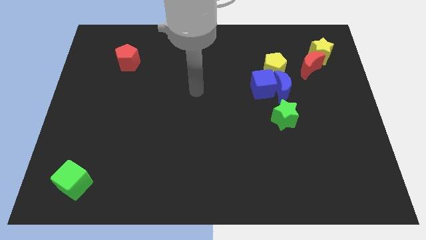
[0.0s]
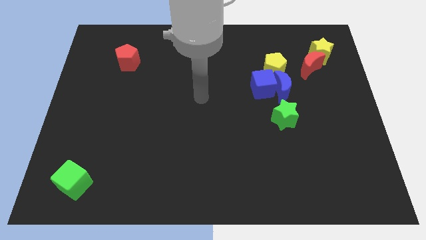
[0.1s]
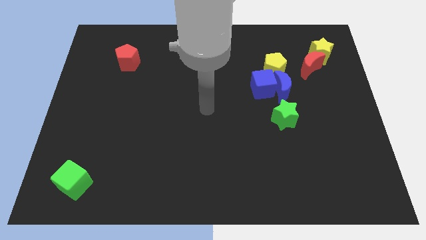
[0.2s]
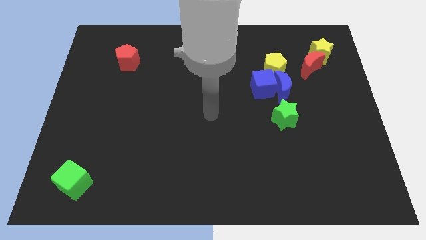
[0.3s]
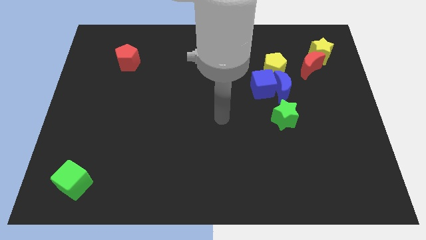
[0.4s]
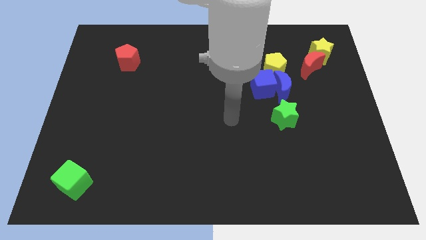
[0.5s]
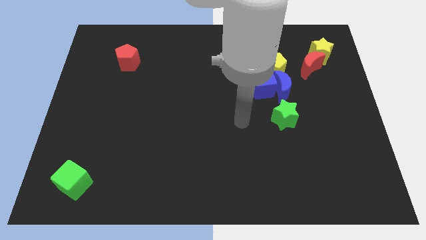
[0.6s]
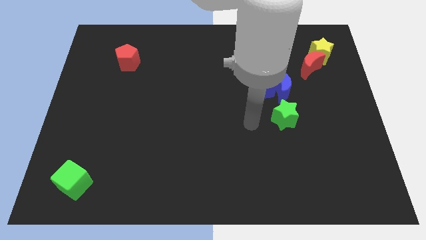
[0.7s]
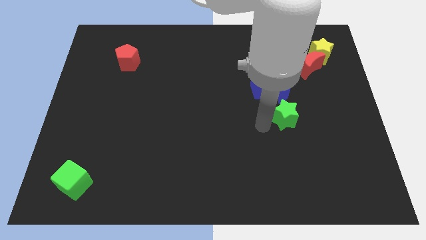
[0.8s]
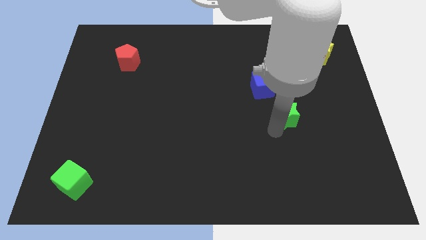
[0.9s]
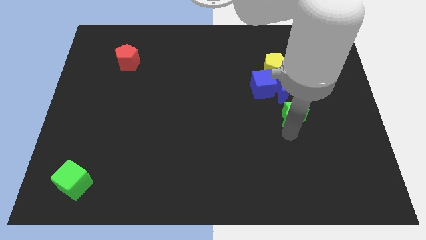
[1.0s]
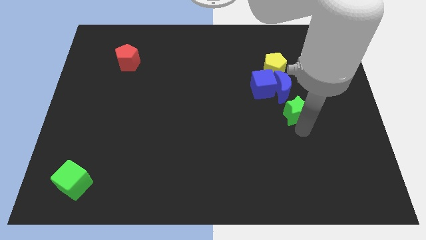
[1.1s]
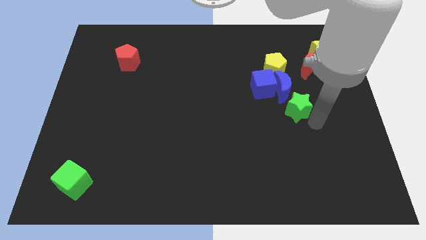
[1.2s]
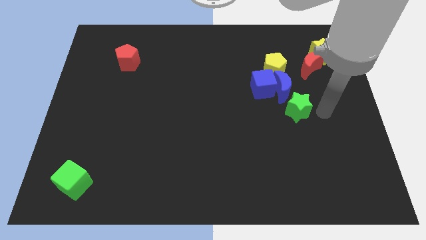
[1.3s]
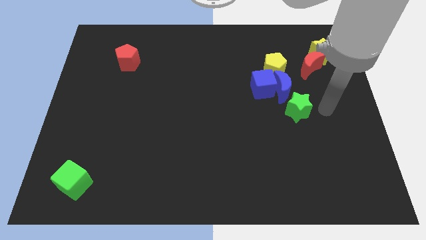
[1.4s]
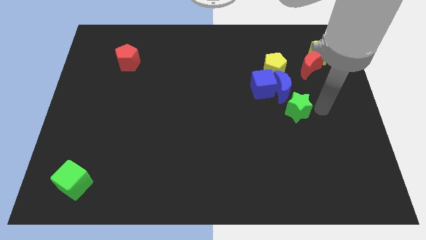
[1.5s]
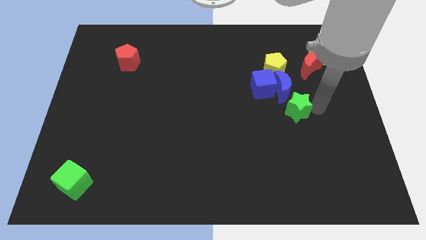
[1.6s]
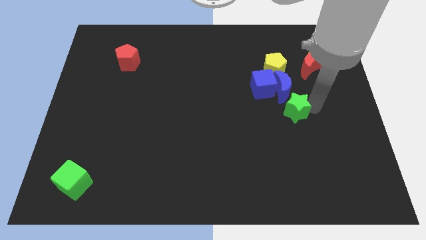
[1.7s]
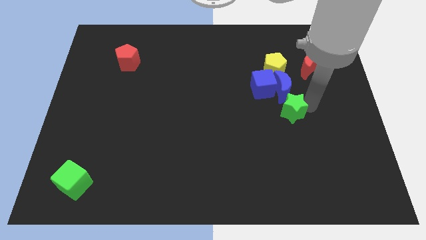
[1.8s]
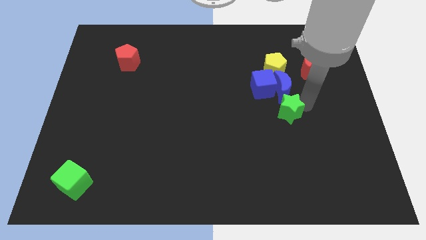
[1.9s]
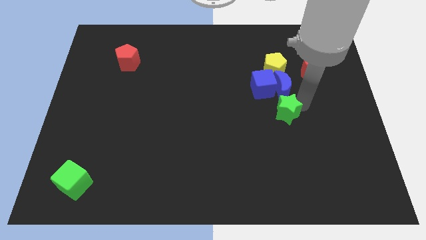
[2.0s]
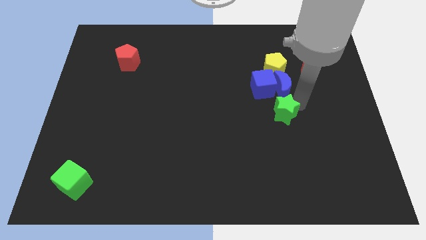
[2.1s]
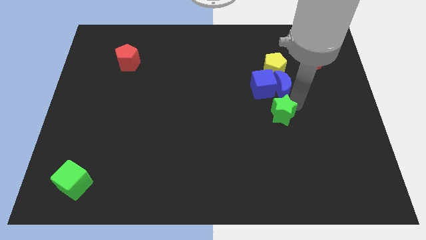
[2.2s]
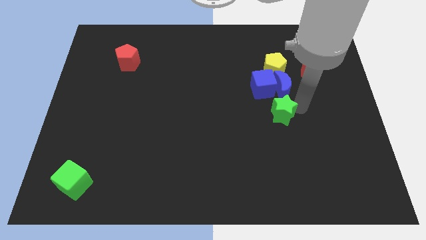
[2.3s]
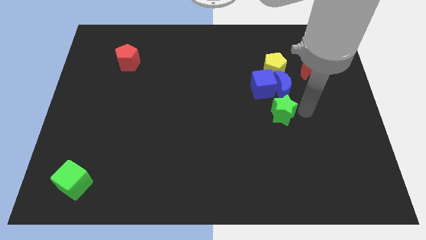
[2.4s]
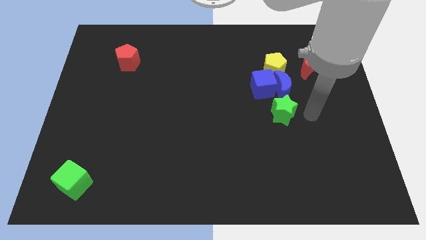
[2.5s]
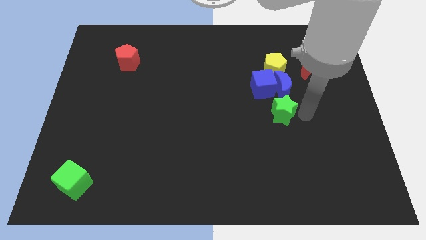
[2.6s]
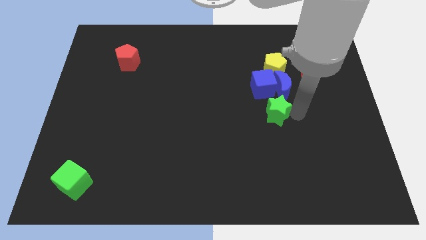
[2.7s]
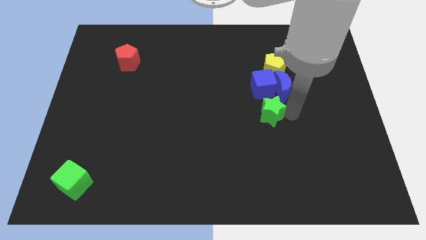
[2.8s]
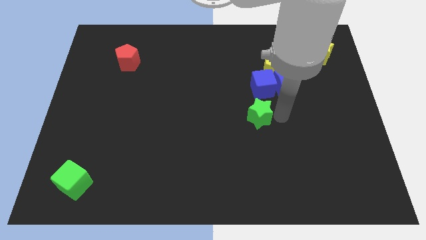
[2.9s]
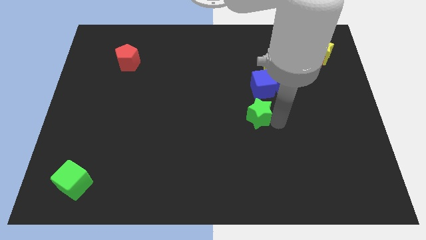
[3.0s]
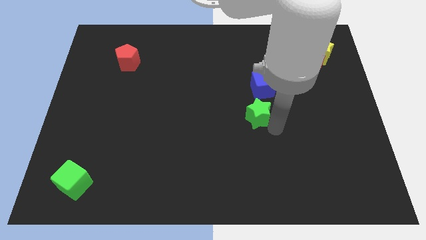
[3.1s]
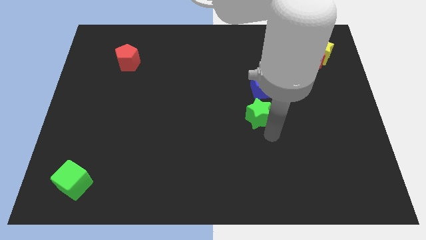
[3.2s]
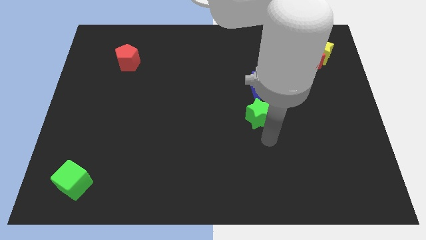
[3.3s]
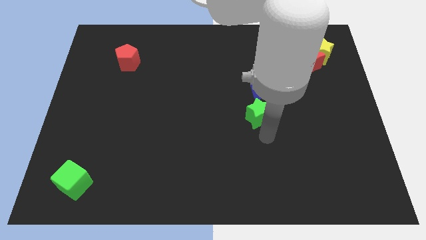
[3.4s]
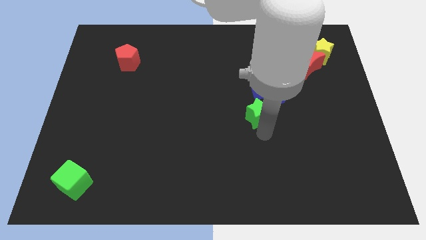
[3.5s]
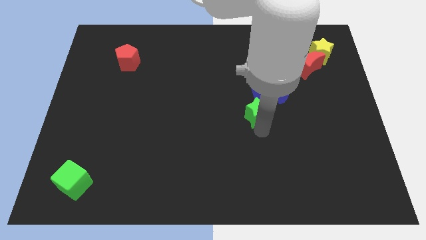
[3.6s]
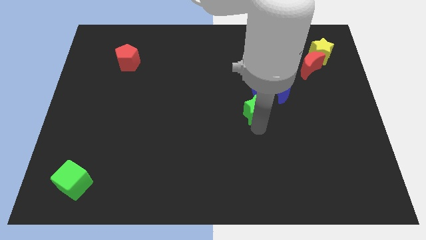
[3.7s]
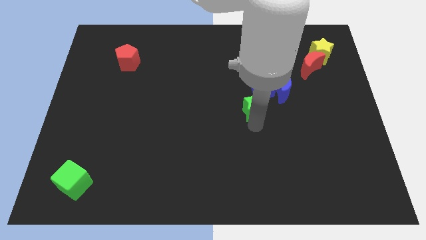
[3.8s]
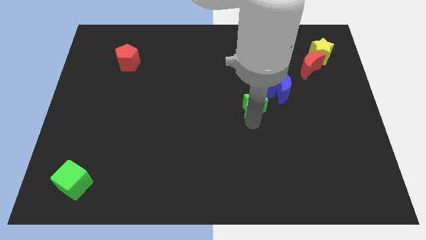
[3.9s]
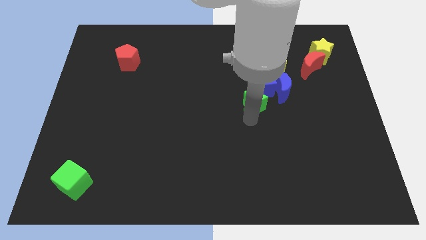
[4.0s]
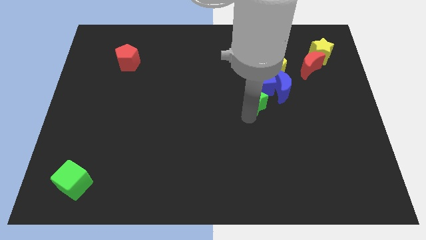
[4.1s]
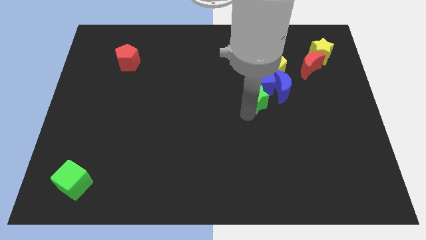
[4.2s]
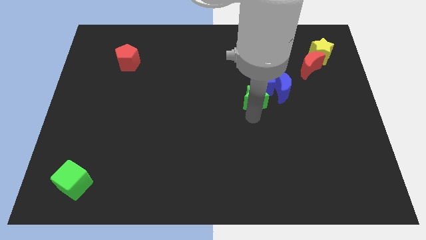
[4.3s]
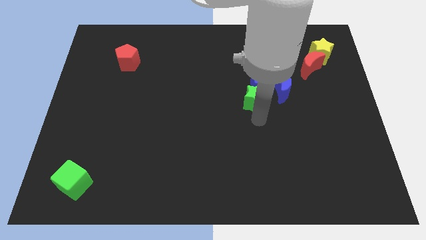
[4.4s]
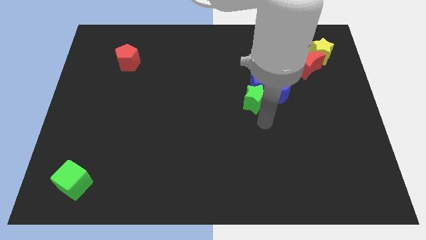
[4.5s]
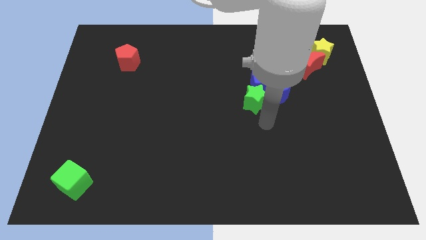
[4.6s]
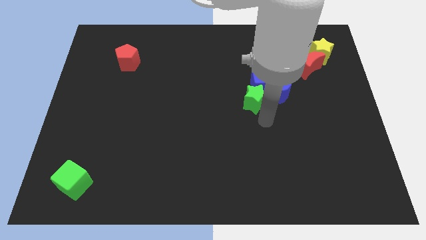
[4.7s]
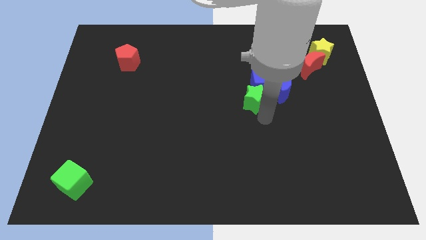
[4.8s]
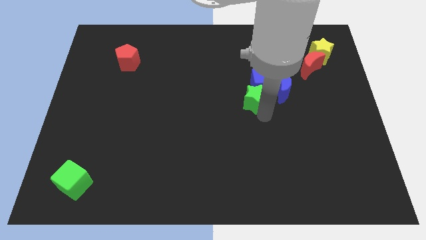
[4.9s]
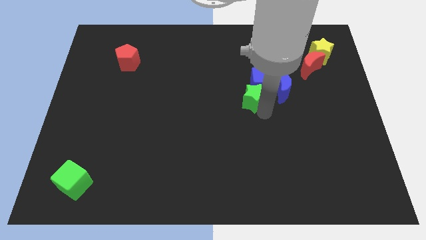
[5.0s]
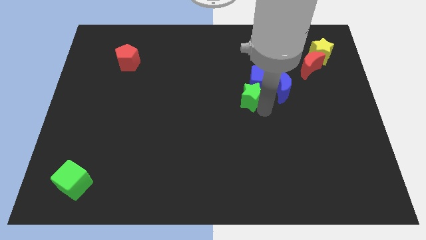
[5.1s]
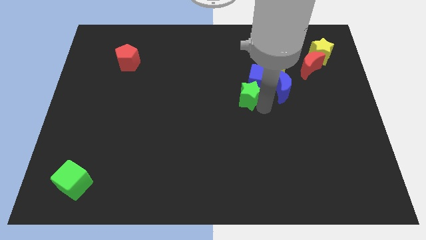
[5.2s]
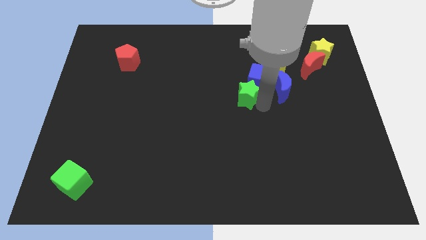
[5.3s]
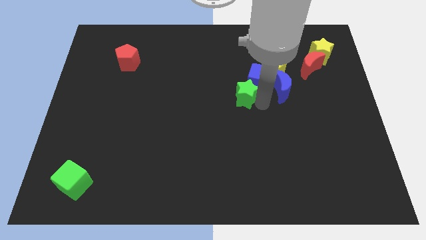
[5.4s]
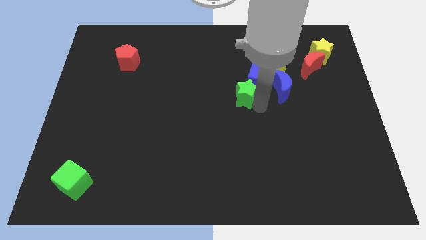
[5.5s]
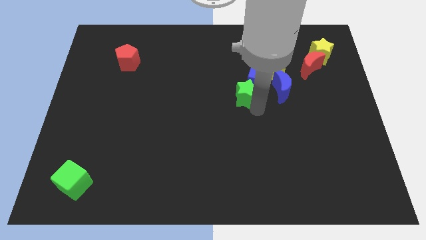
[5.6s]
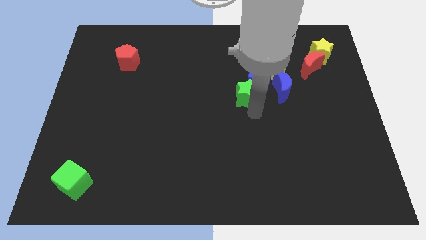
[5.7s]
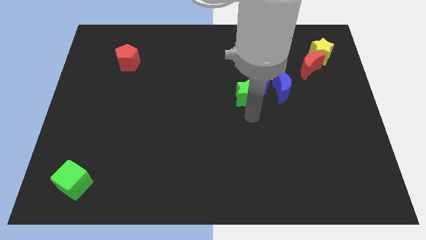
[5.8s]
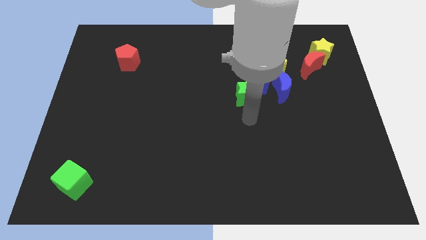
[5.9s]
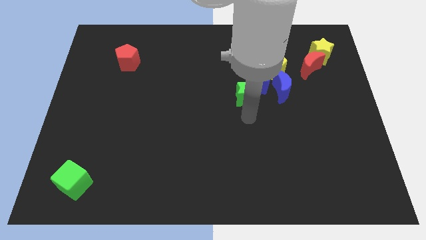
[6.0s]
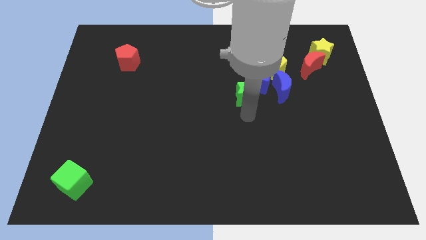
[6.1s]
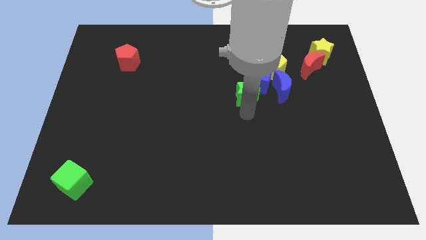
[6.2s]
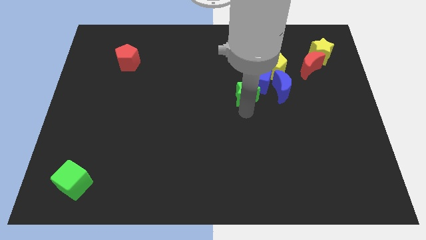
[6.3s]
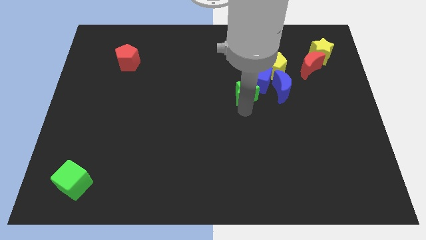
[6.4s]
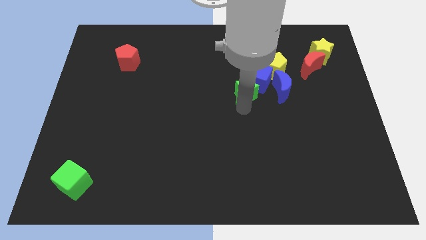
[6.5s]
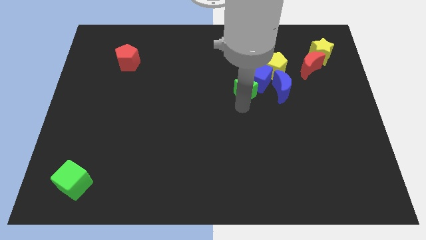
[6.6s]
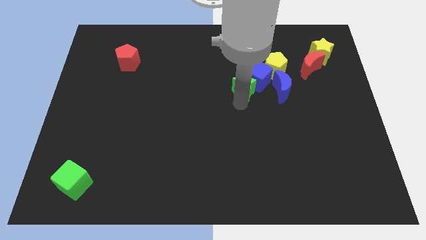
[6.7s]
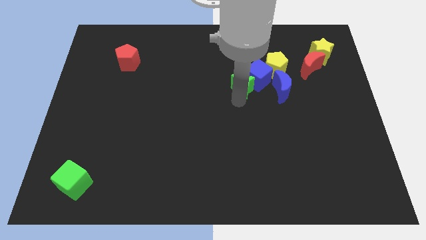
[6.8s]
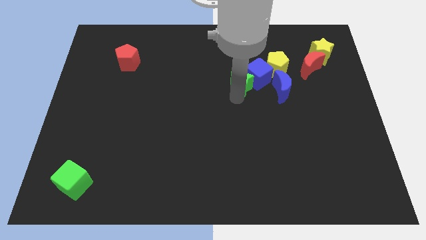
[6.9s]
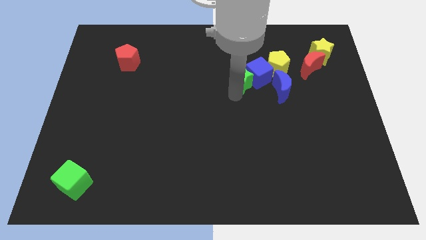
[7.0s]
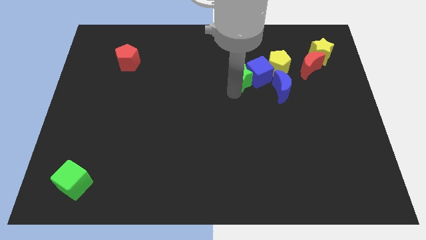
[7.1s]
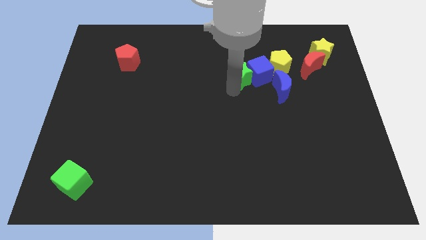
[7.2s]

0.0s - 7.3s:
push the green star to the top left of the blue cube

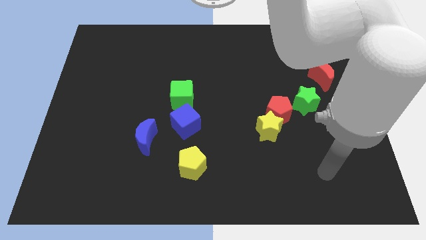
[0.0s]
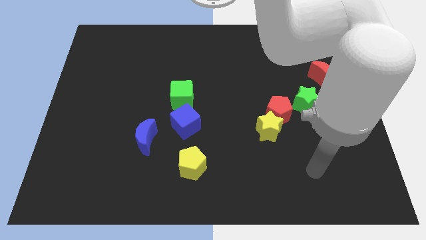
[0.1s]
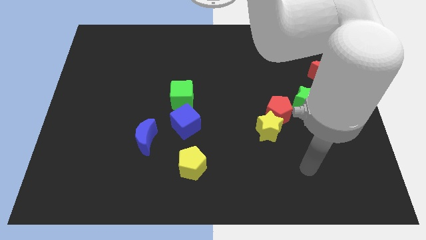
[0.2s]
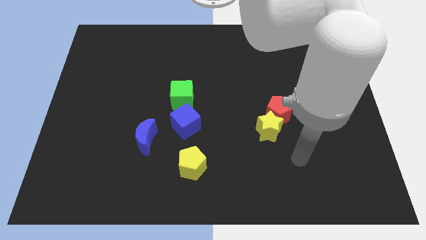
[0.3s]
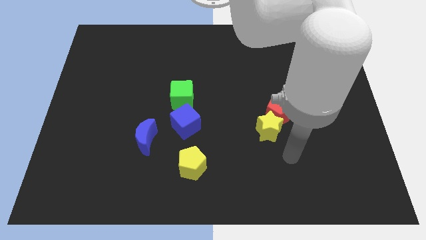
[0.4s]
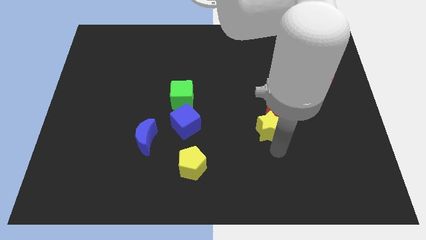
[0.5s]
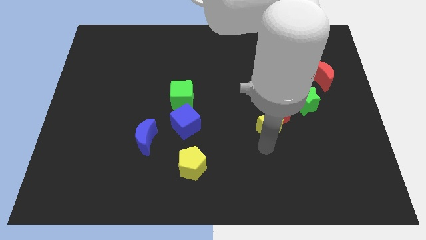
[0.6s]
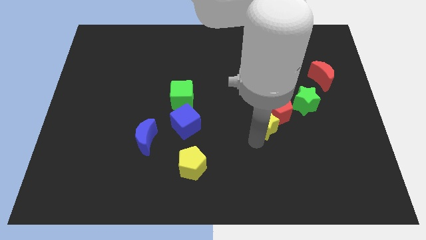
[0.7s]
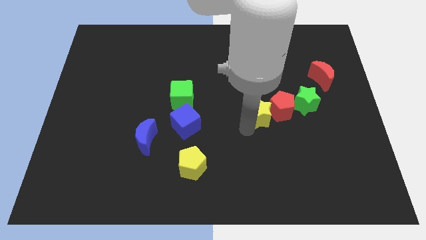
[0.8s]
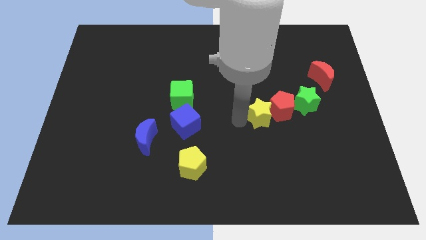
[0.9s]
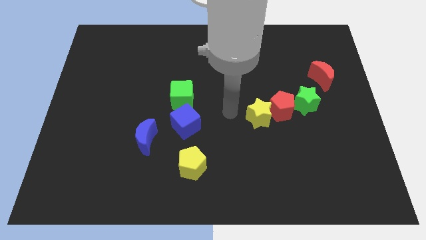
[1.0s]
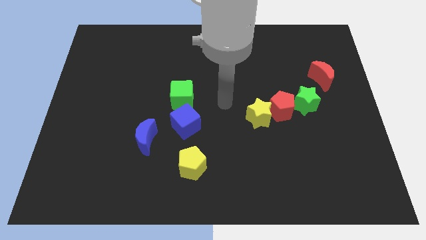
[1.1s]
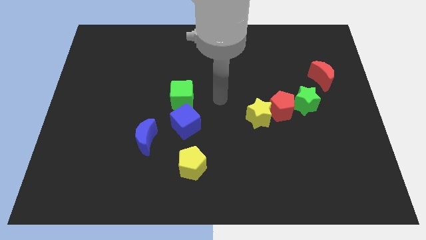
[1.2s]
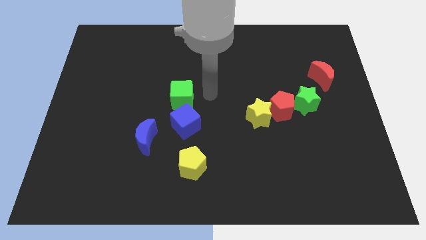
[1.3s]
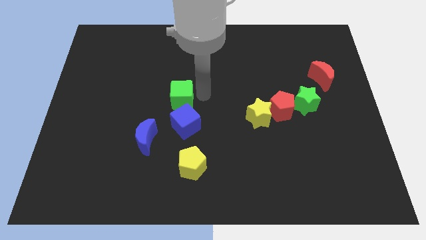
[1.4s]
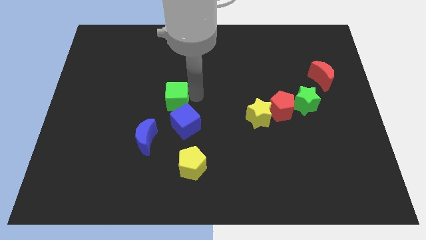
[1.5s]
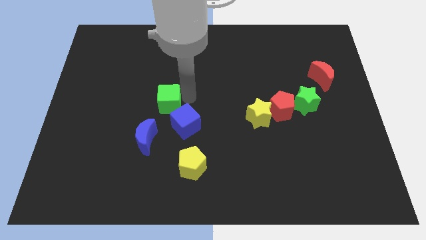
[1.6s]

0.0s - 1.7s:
push the green cube above the blue moon
